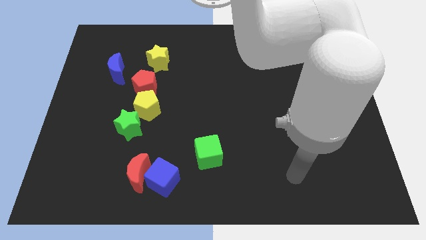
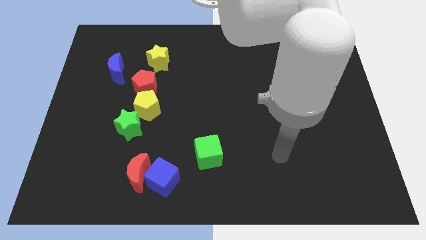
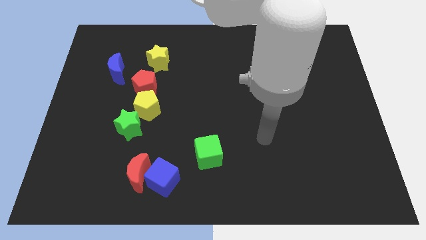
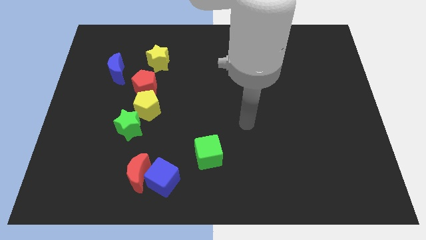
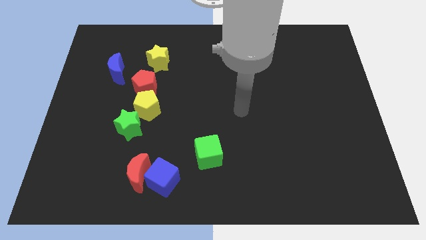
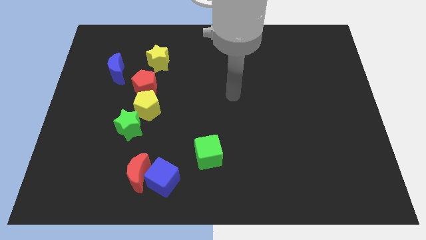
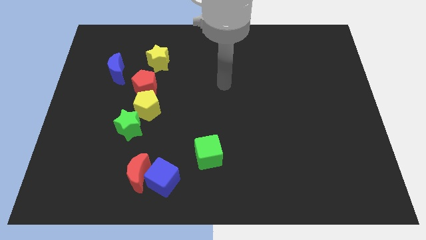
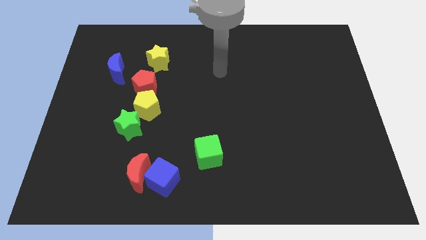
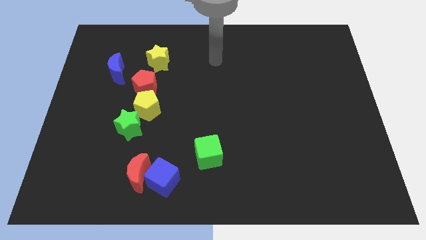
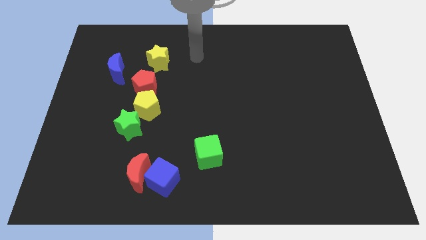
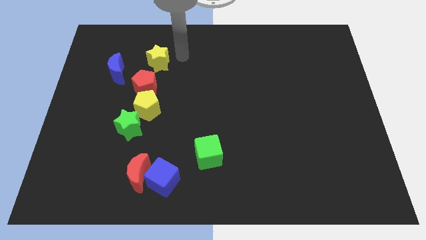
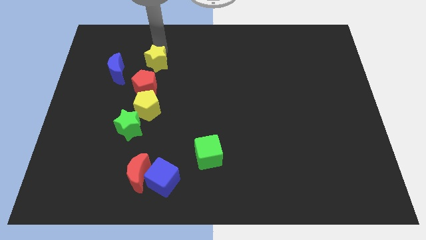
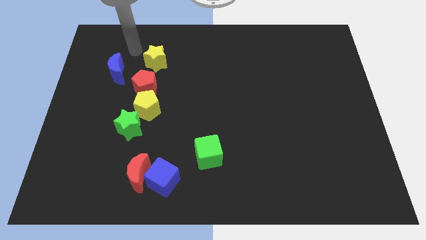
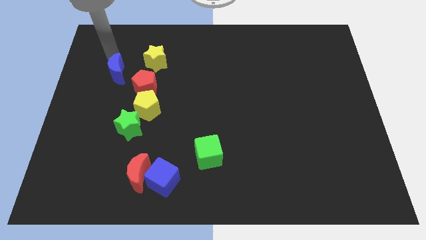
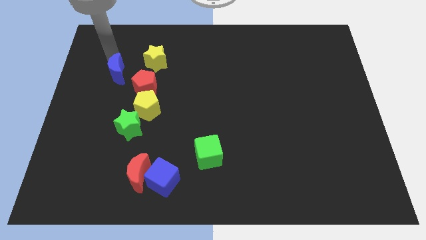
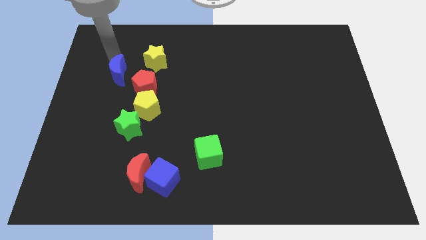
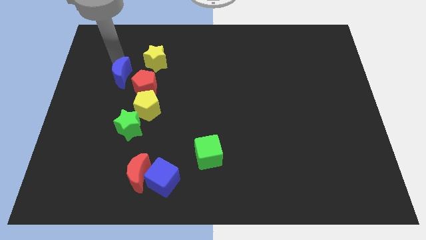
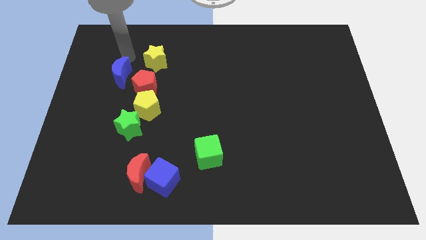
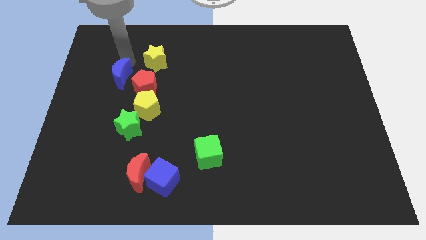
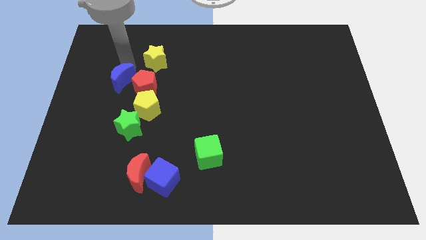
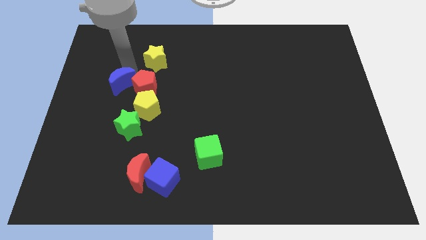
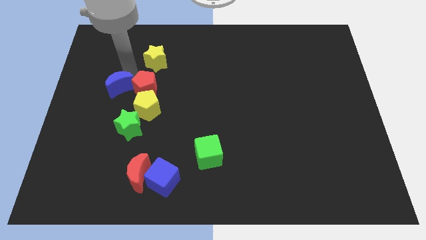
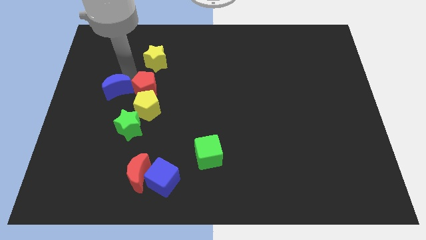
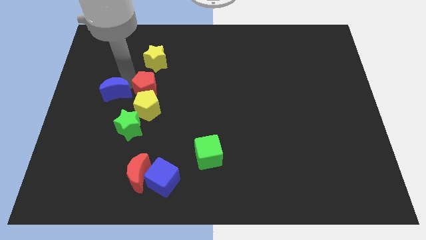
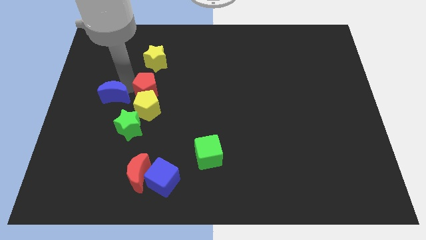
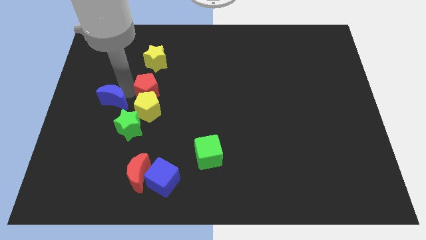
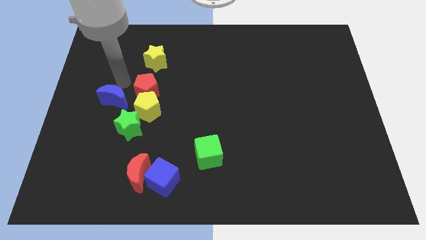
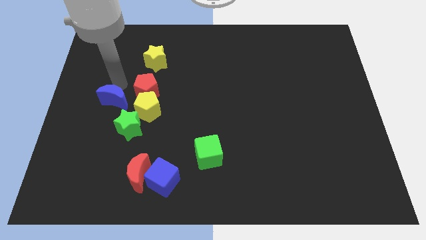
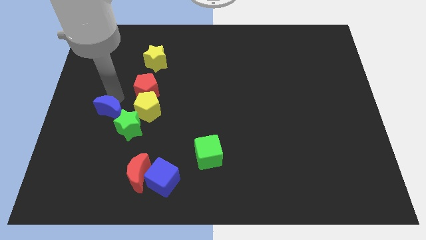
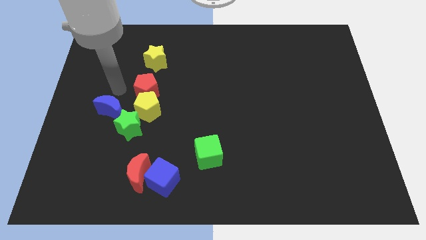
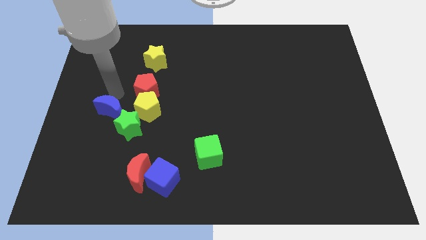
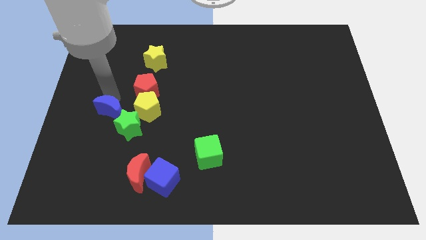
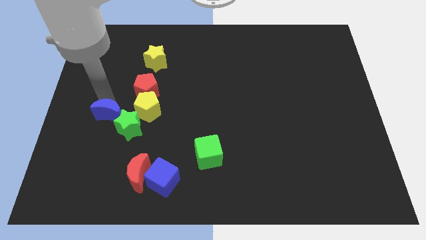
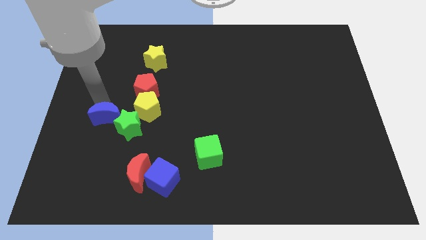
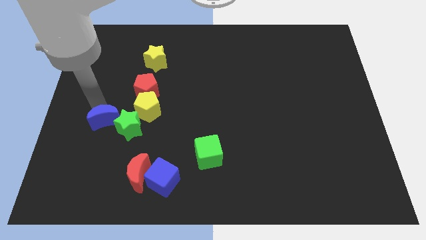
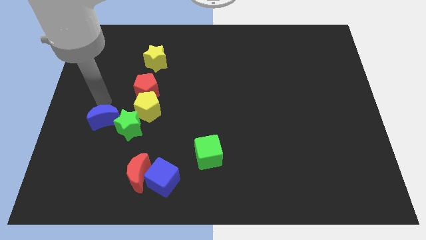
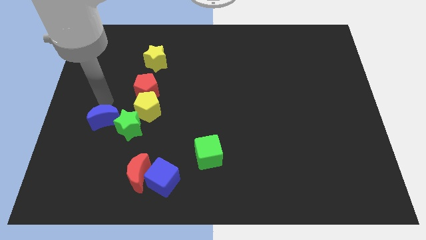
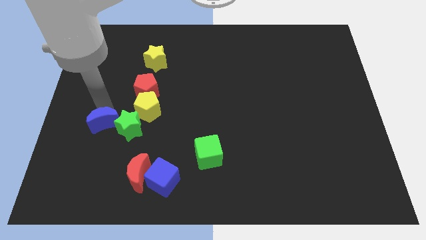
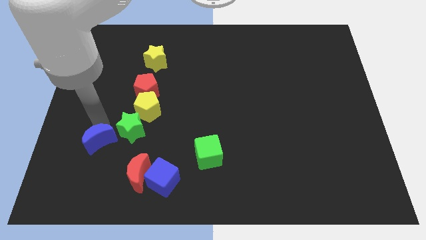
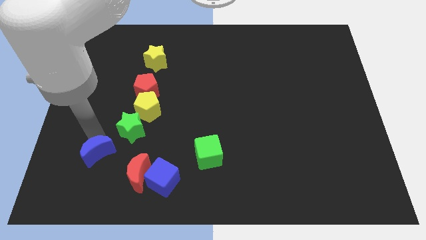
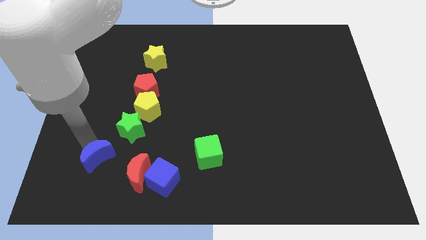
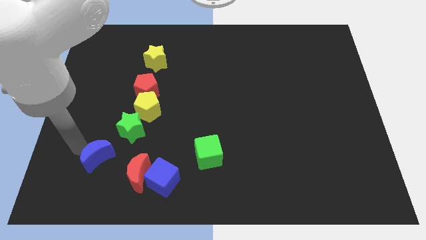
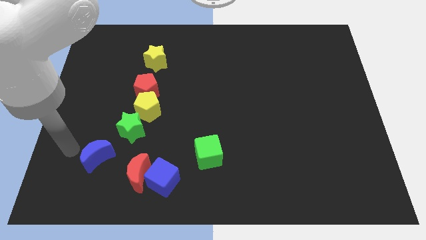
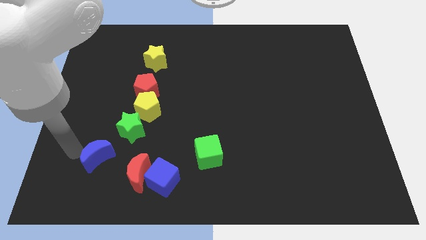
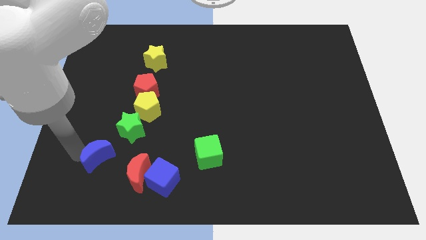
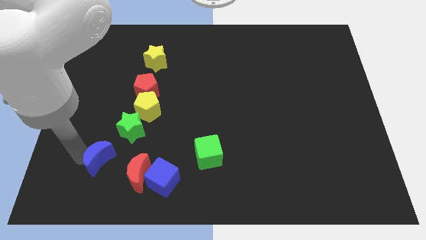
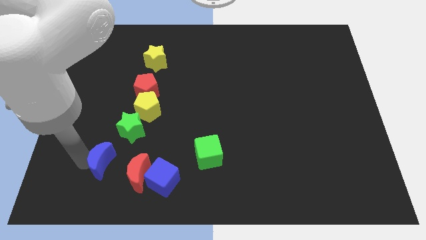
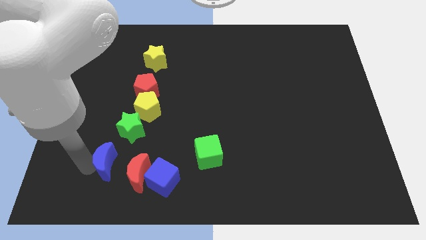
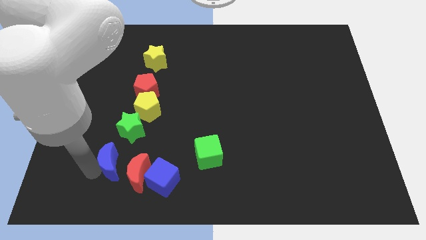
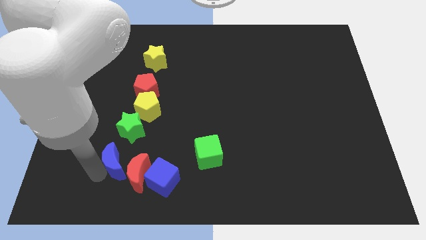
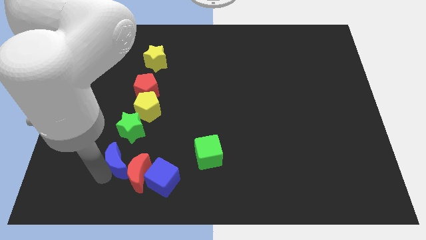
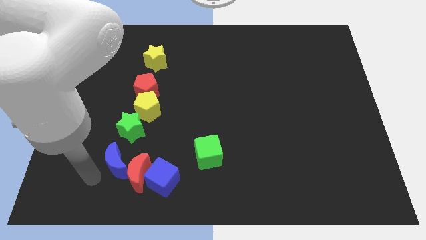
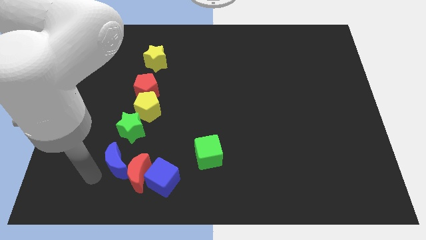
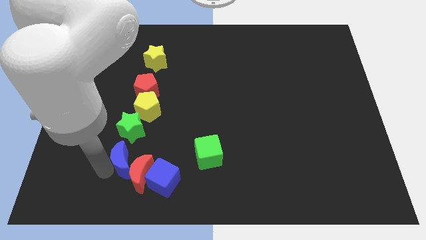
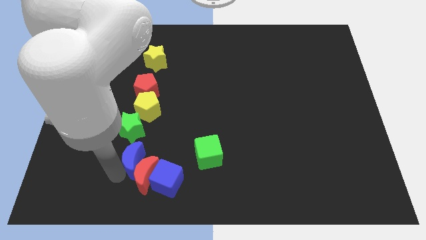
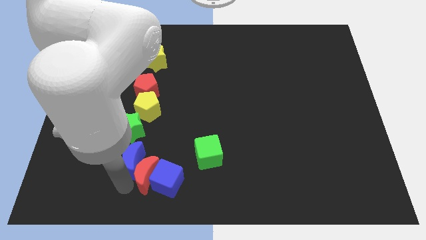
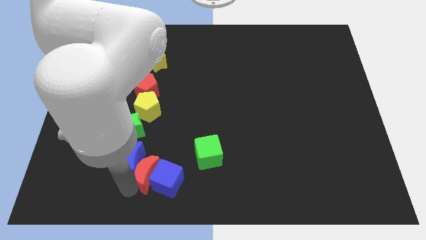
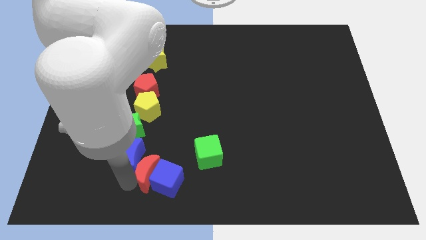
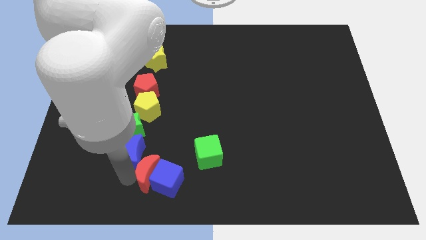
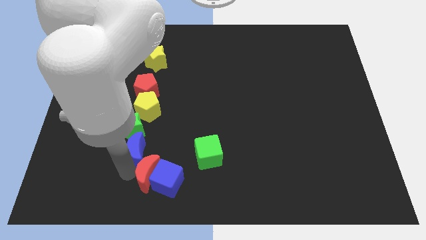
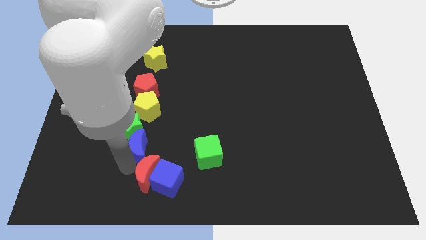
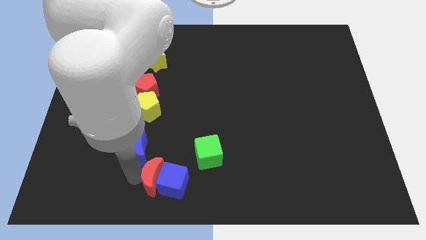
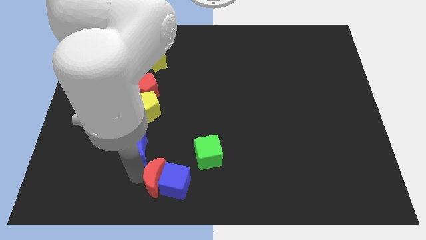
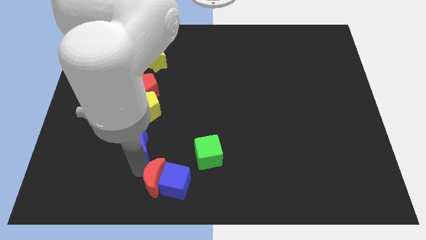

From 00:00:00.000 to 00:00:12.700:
put the blue moon below the red pentagon

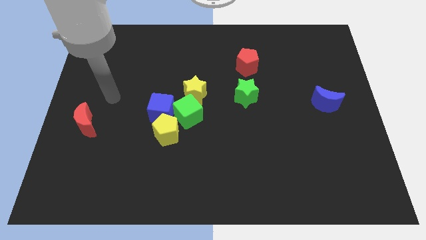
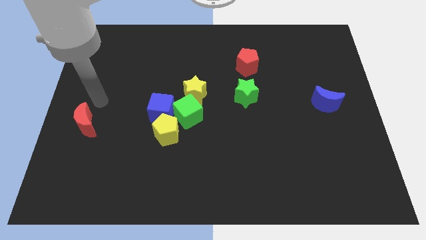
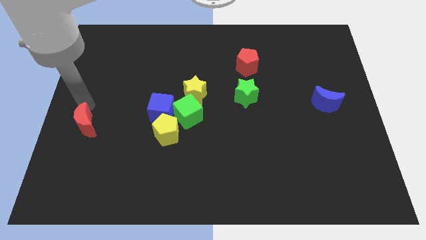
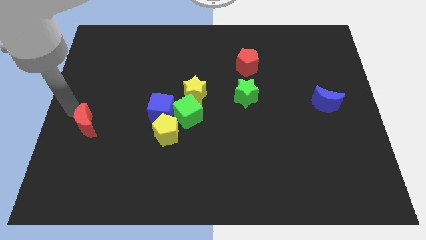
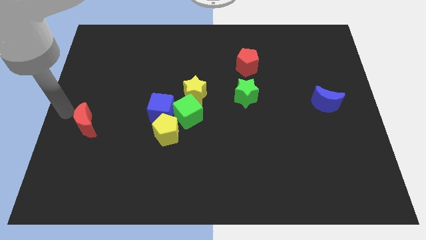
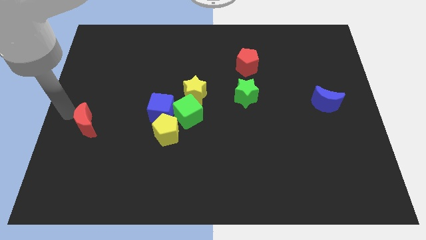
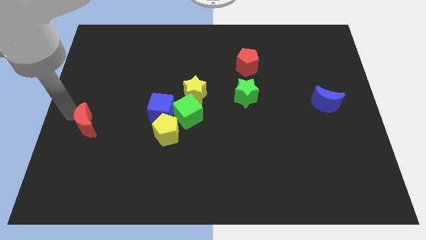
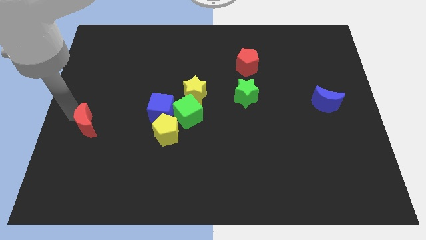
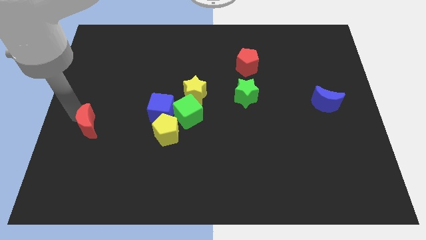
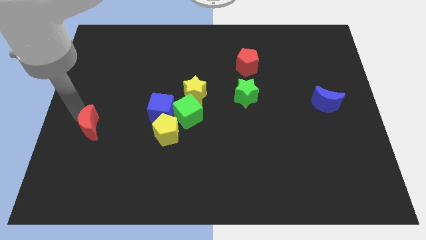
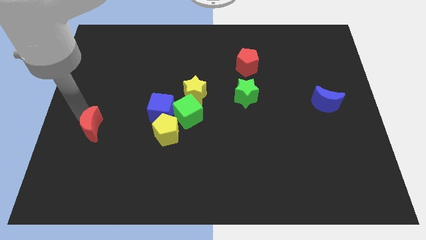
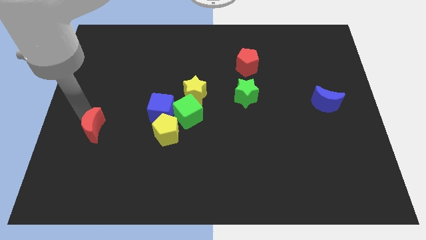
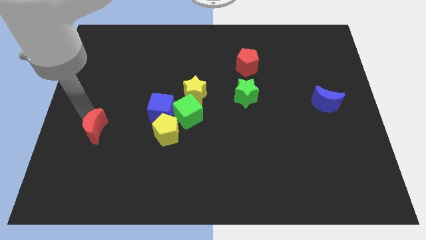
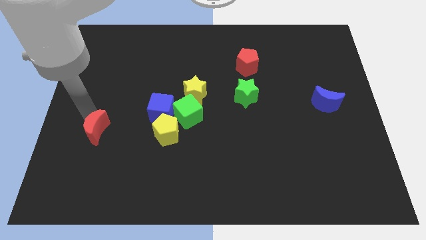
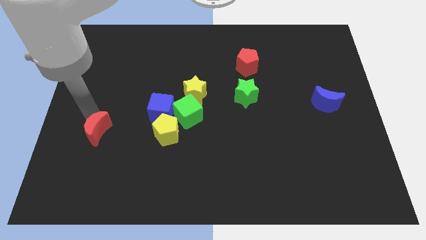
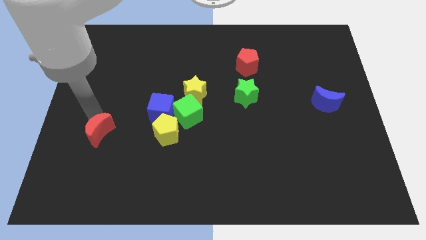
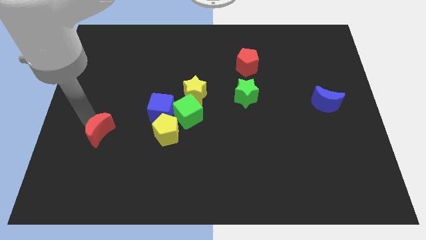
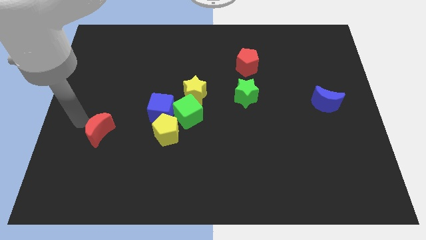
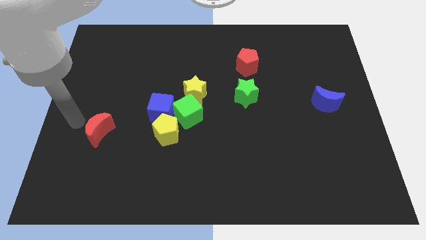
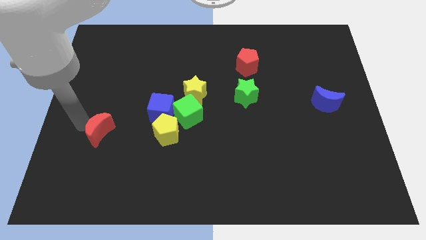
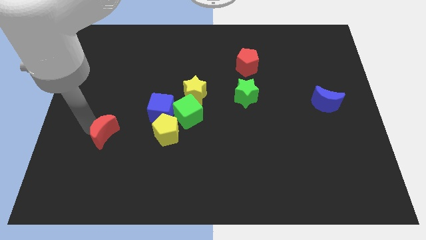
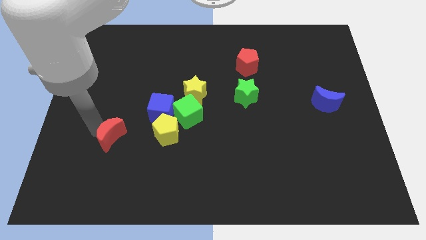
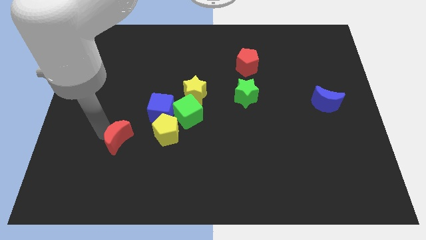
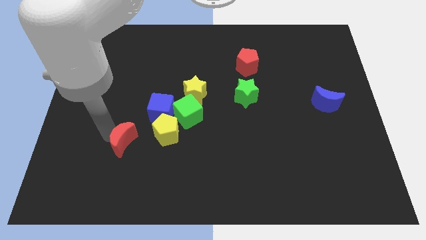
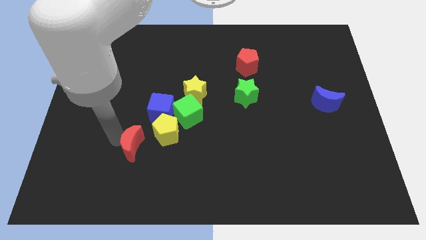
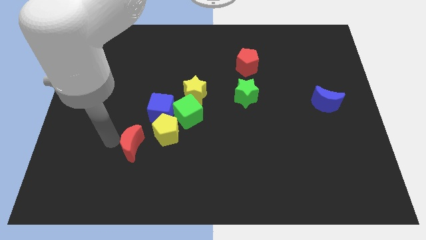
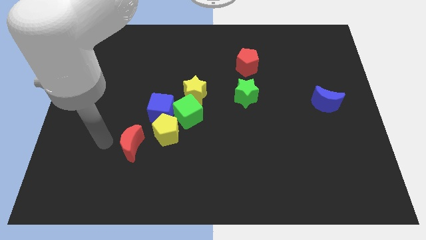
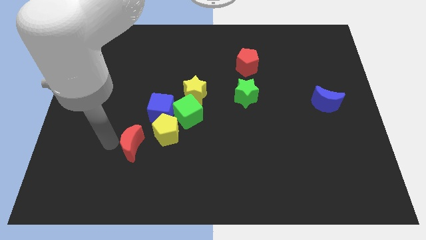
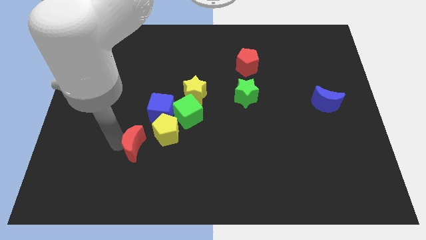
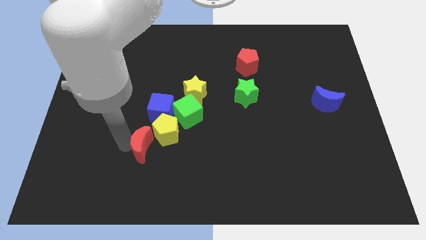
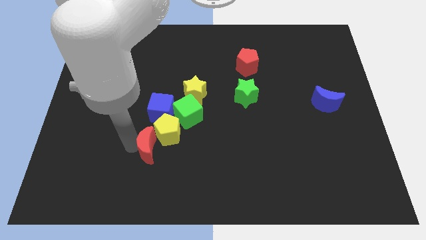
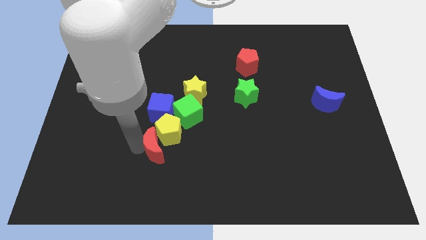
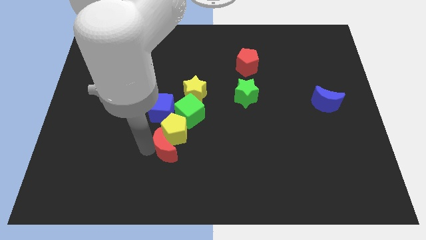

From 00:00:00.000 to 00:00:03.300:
push the red moon to the bottom right of the yellow pentagon
